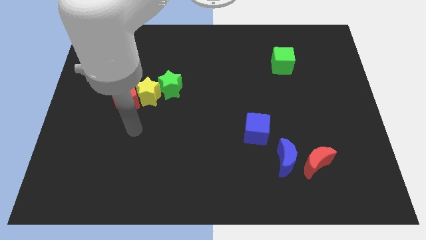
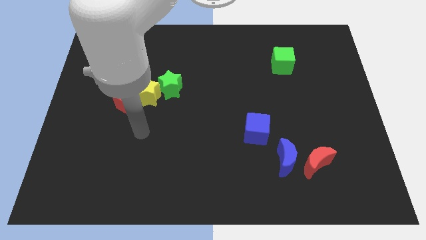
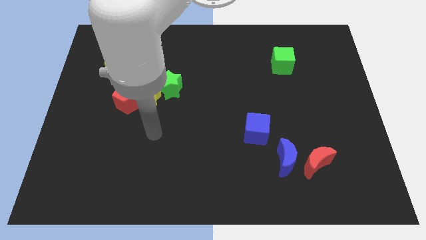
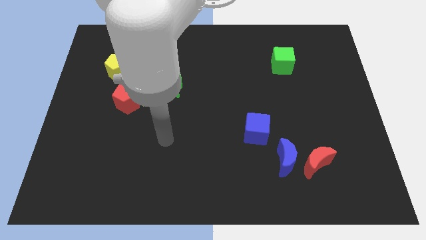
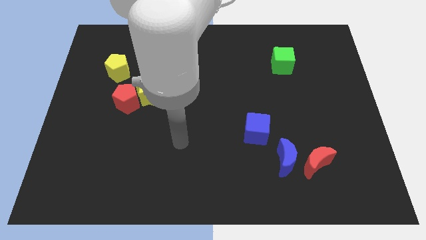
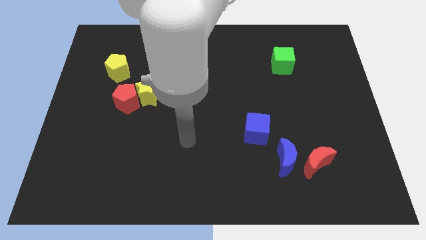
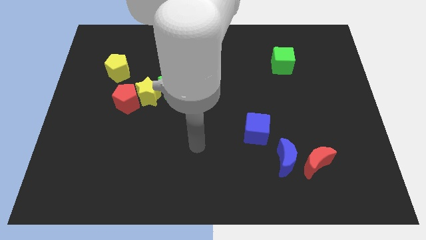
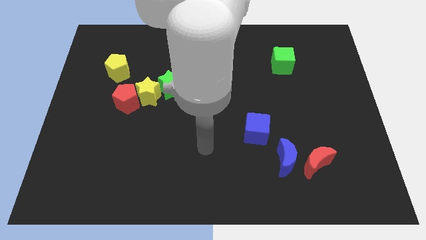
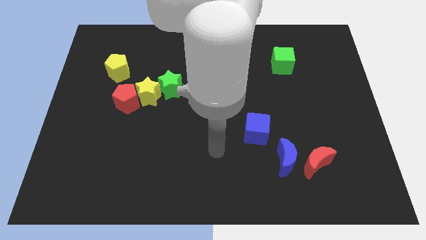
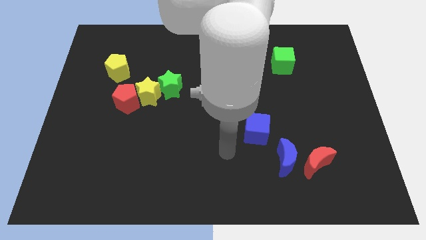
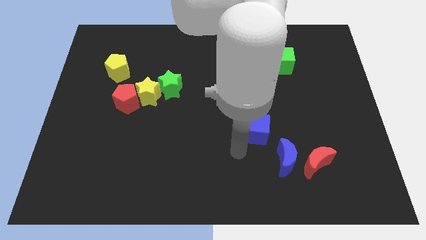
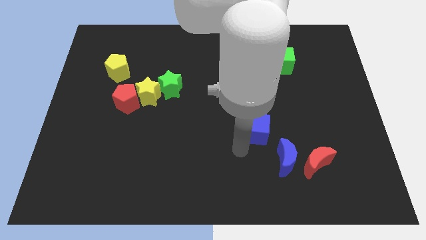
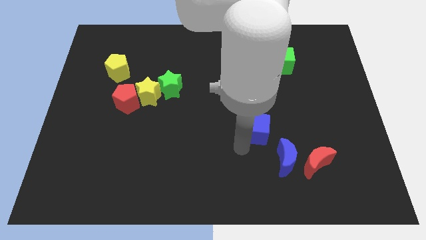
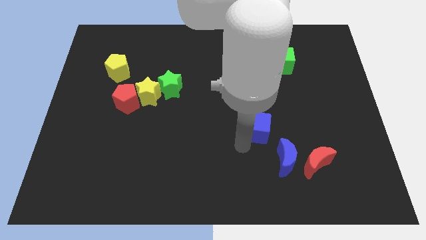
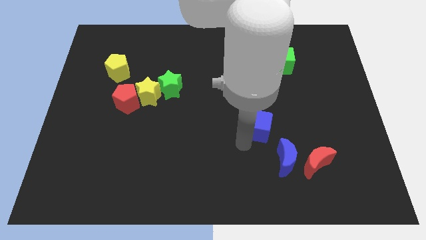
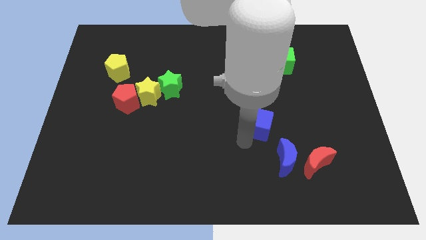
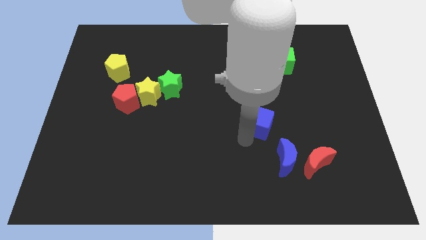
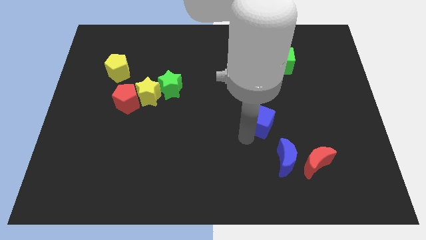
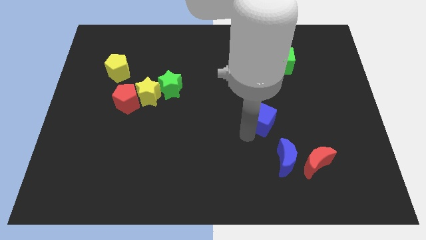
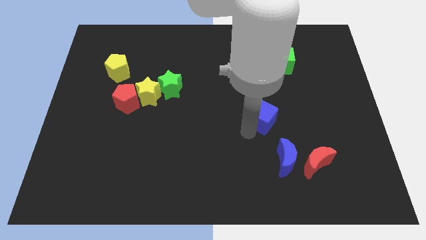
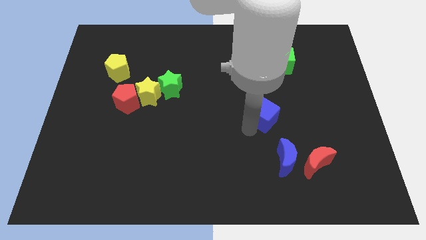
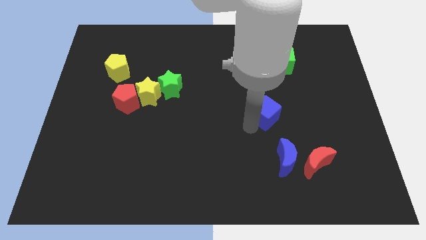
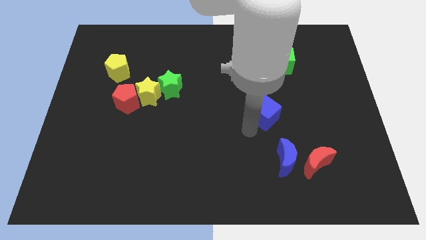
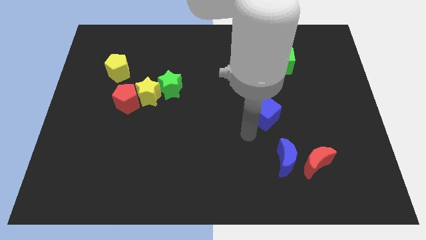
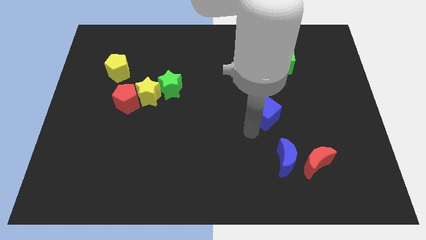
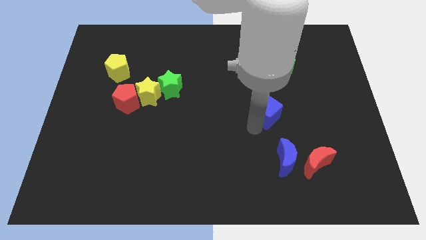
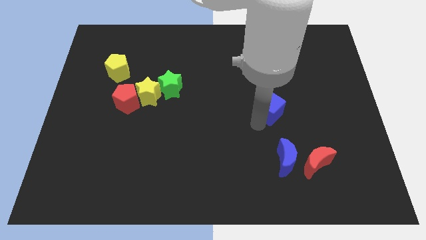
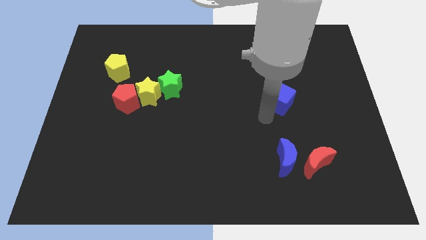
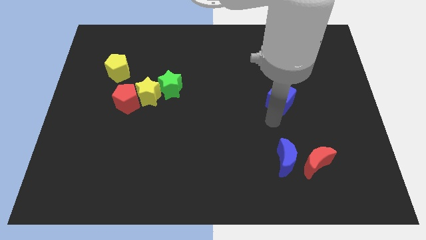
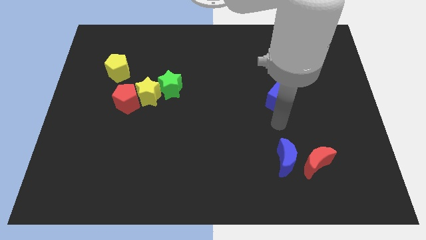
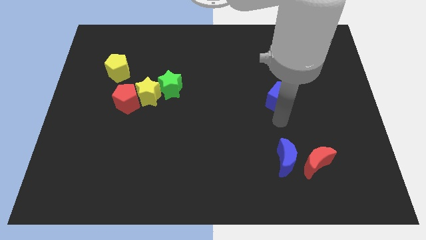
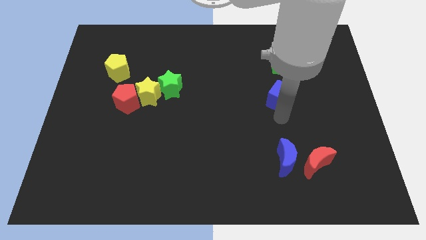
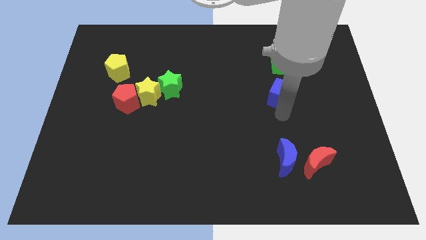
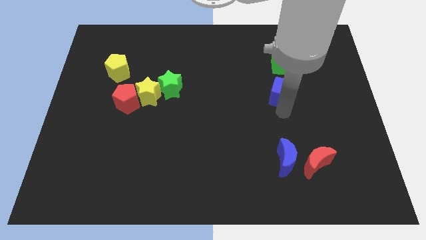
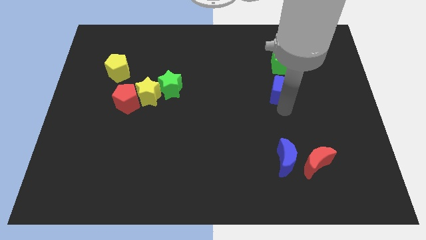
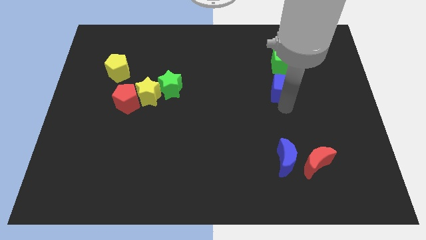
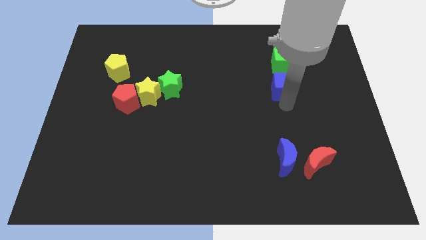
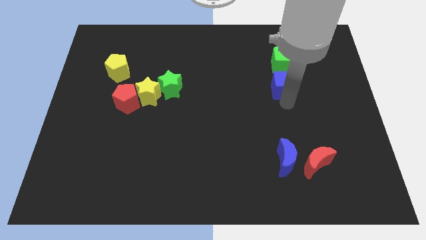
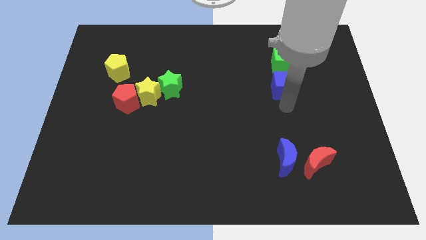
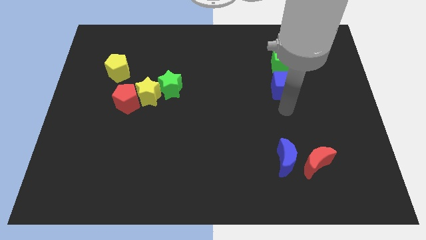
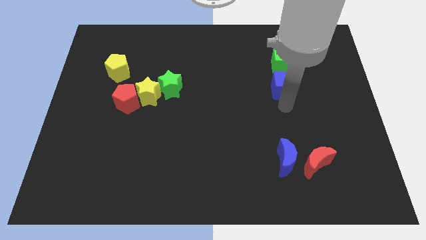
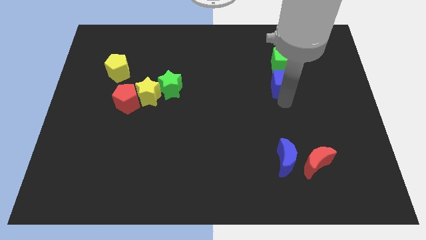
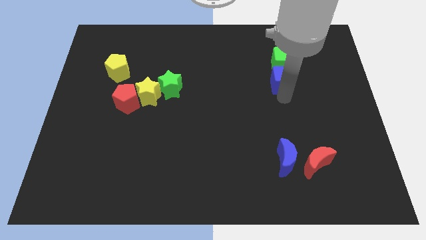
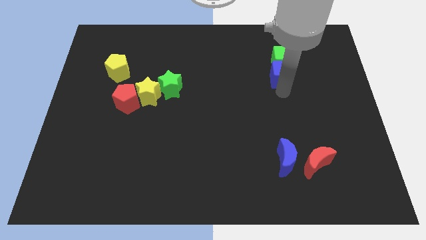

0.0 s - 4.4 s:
push the blue cube next to the green cube

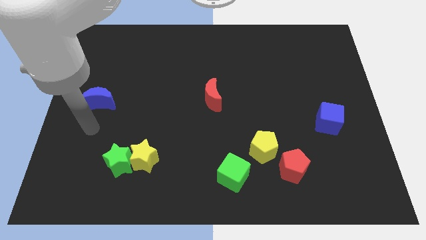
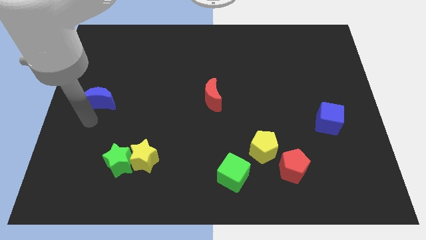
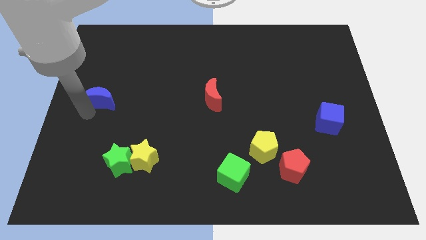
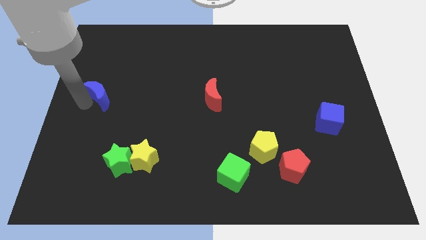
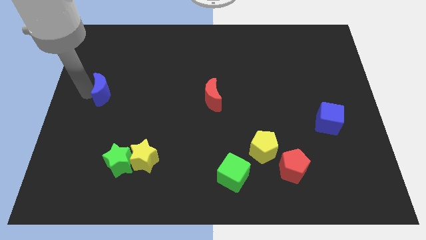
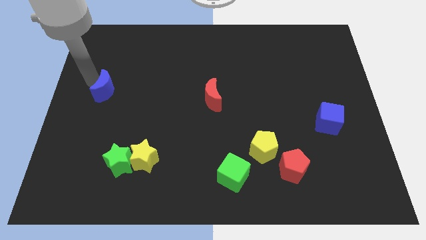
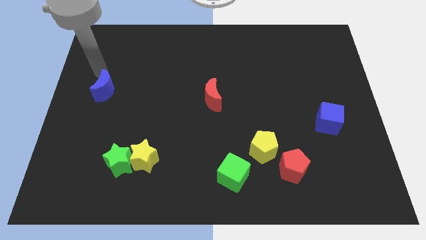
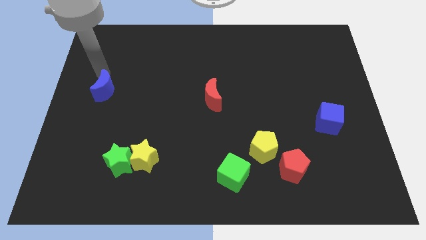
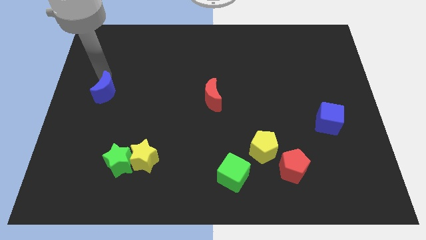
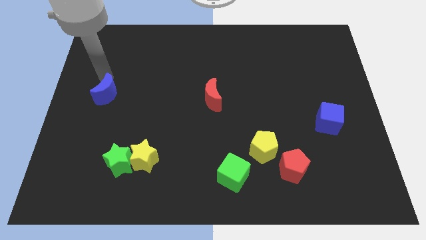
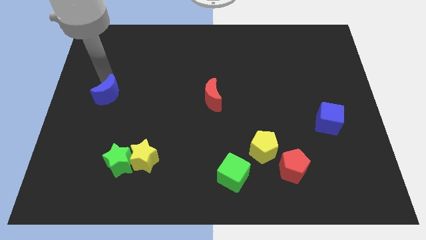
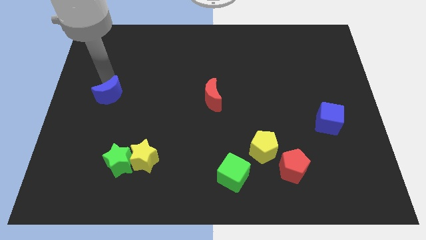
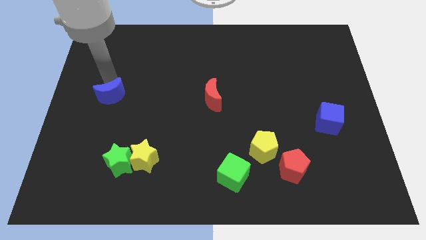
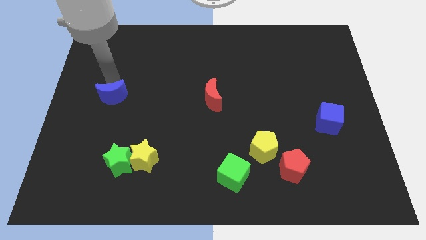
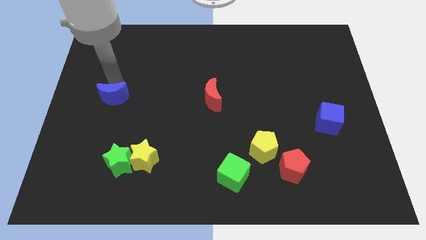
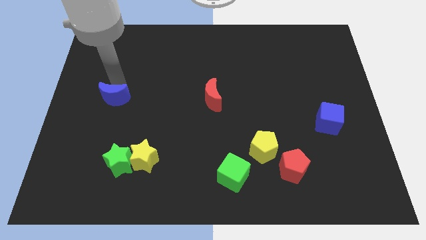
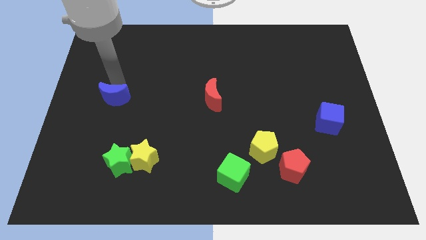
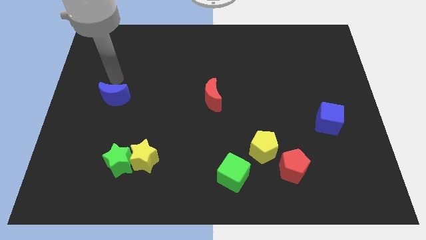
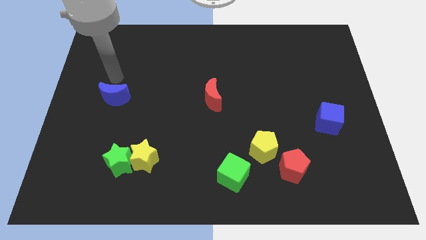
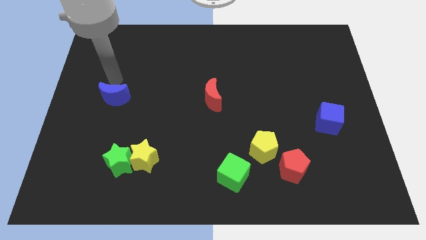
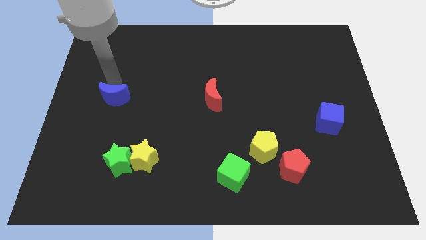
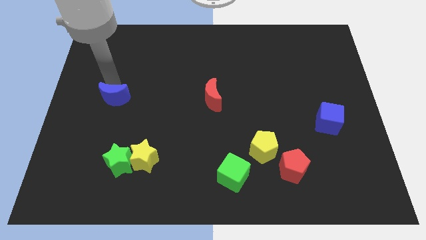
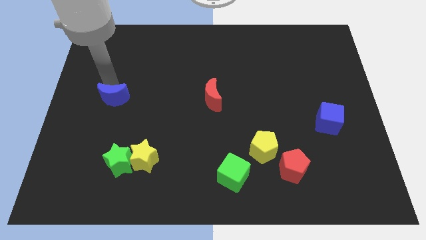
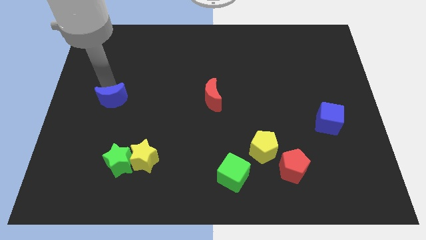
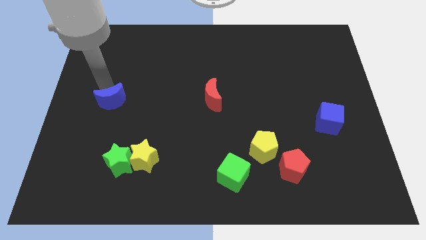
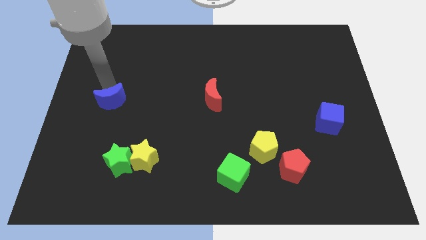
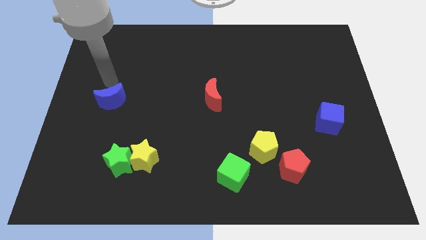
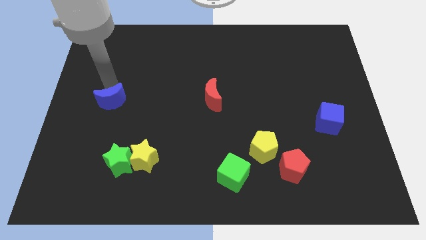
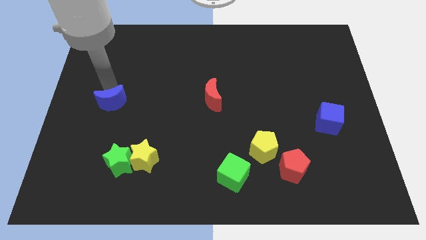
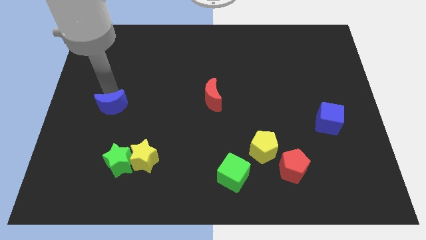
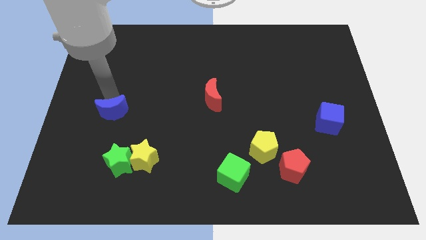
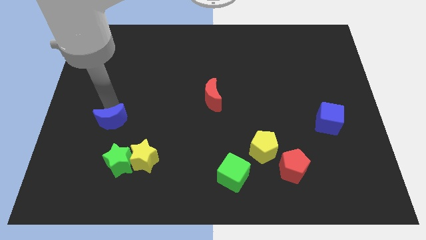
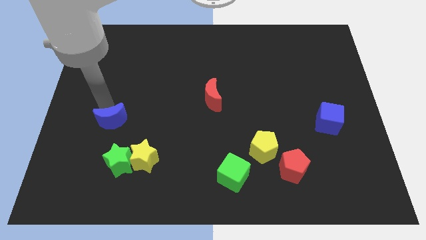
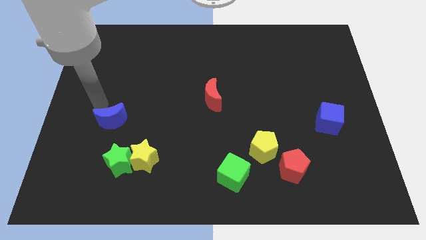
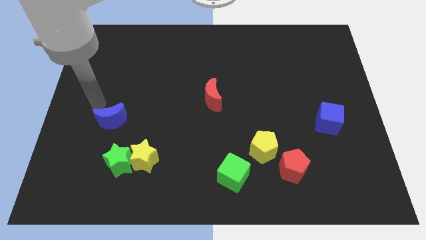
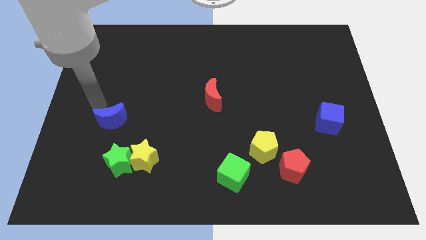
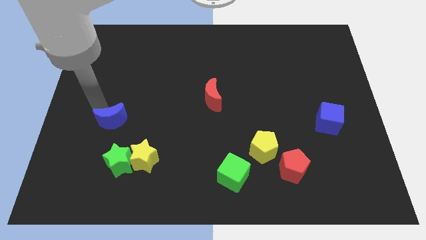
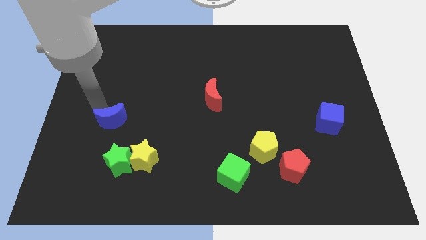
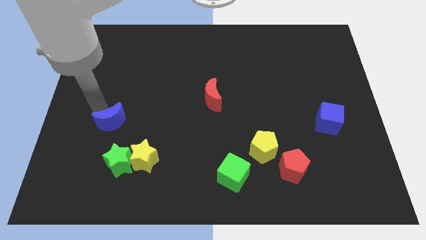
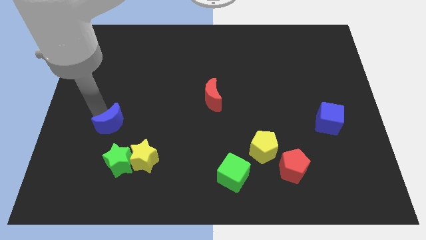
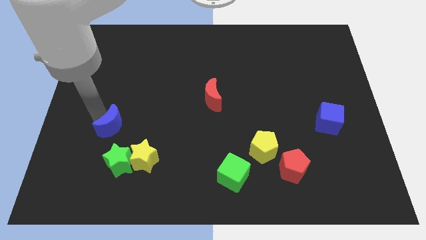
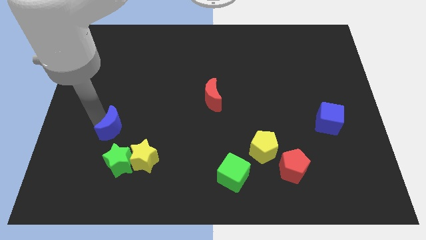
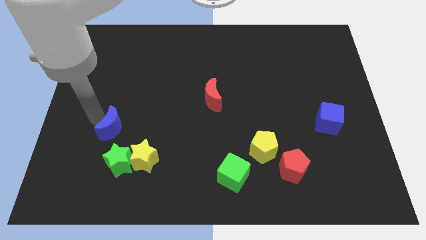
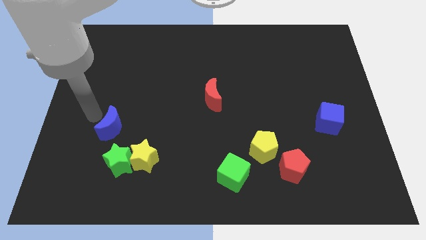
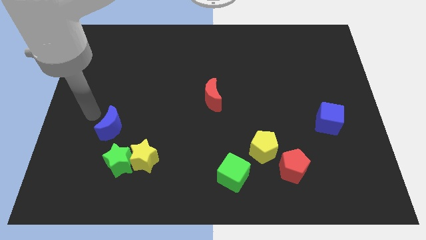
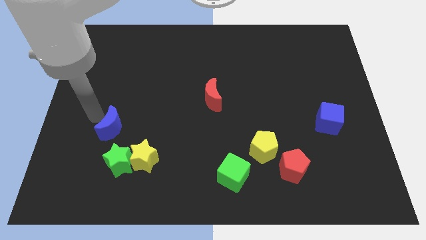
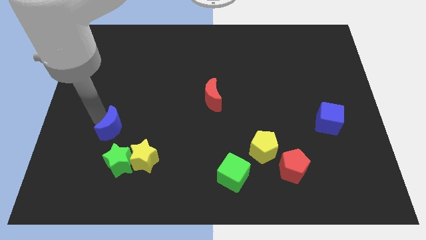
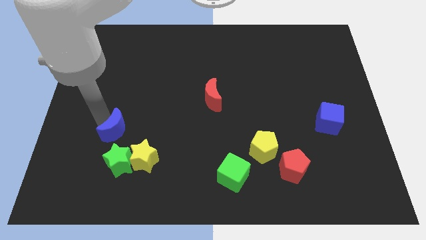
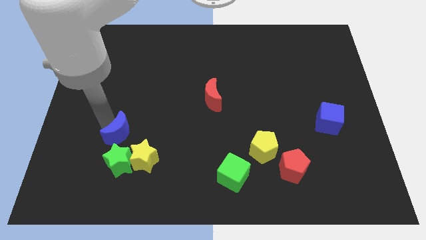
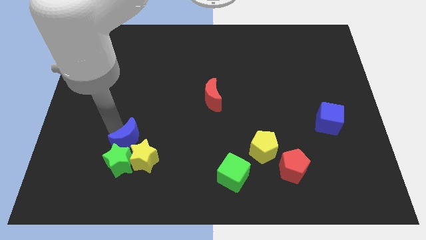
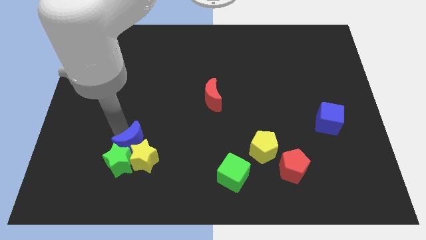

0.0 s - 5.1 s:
put the blue moon to the yellow star
